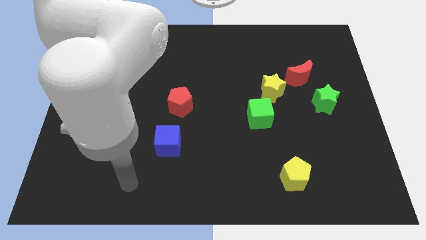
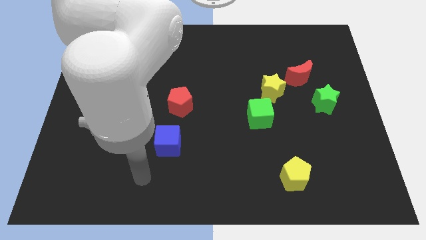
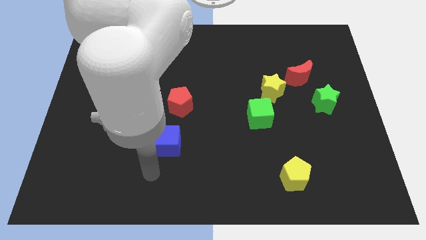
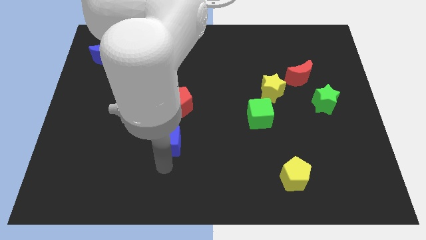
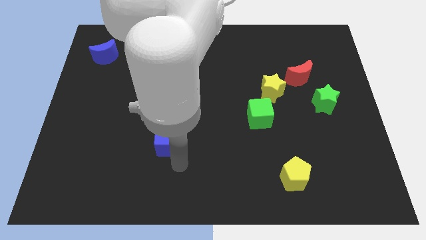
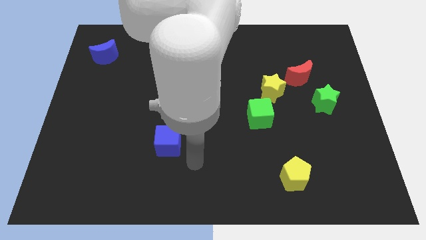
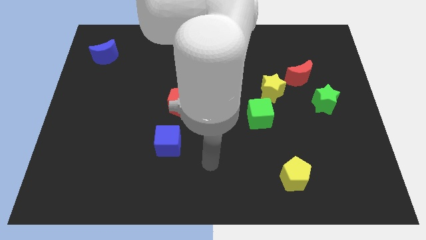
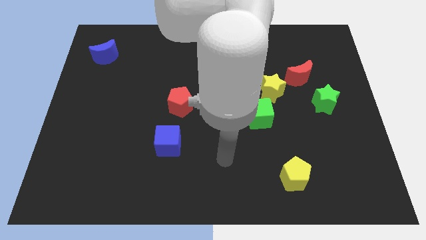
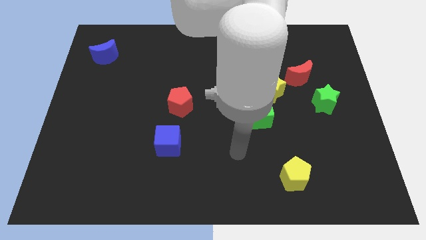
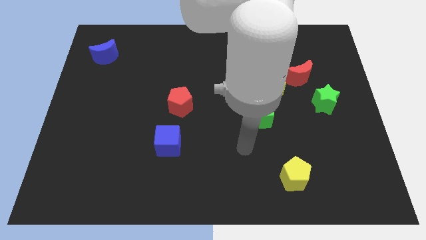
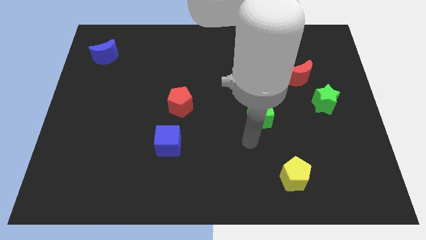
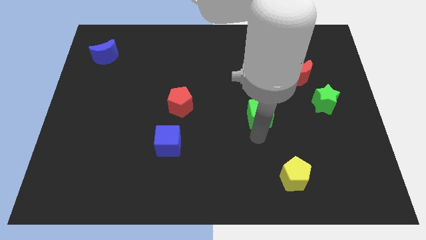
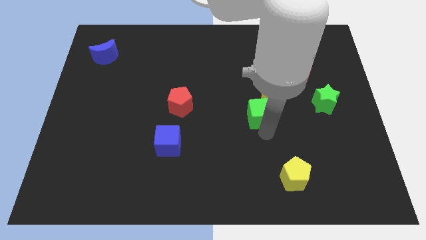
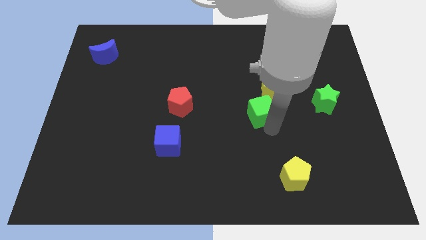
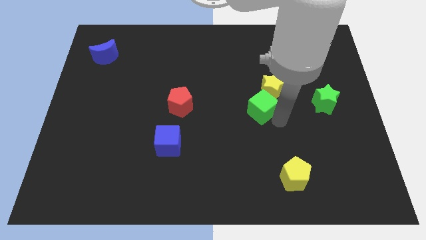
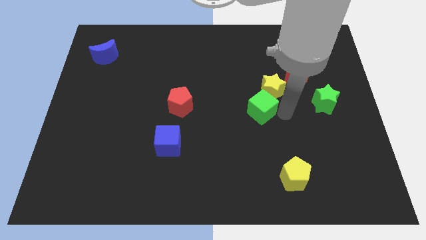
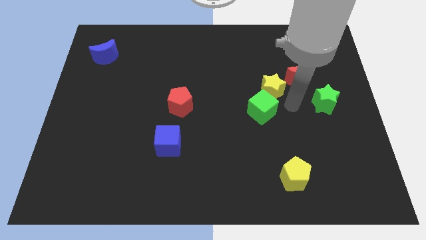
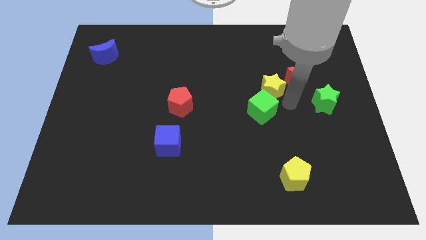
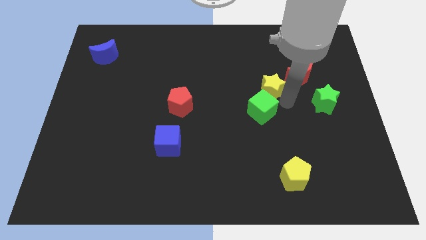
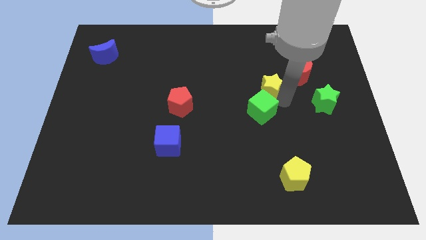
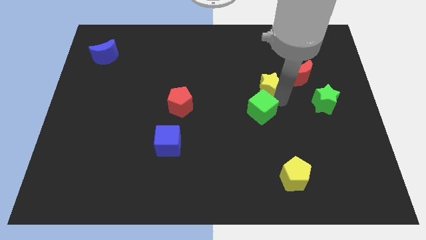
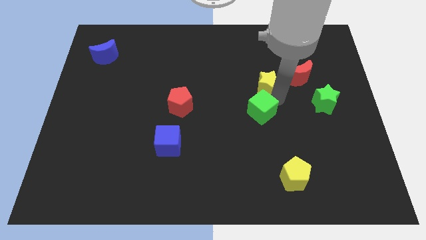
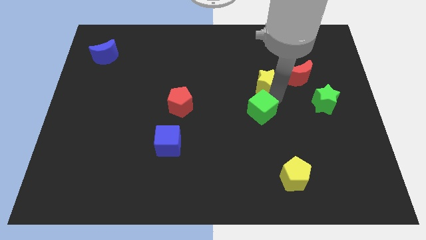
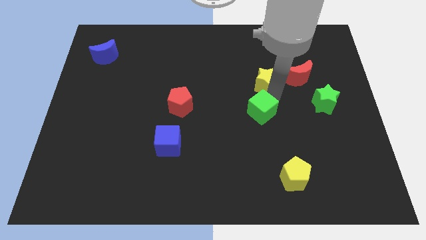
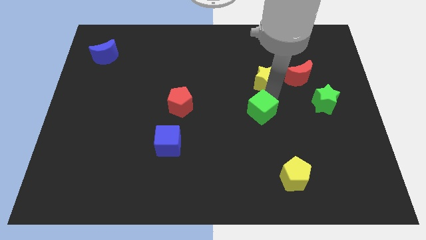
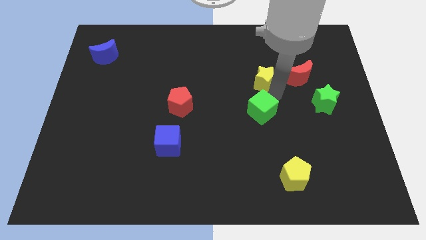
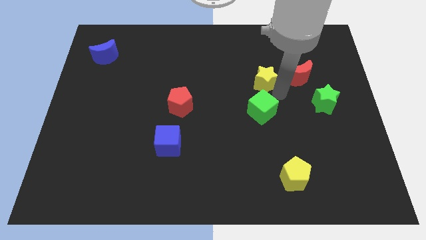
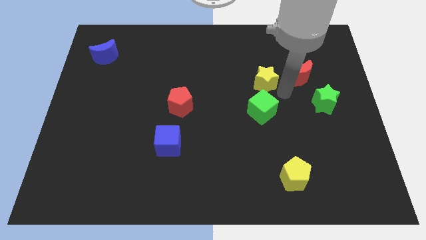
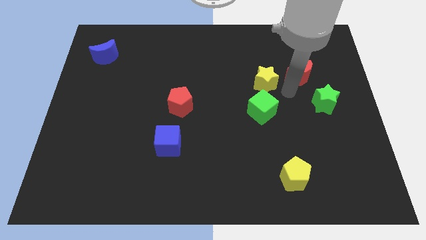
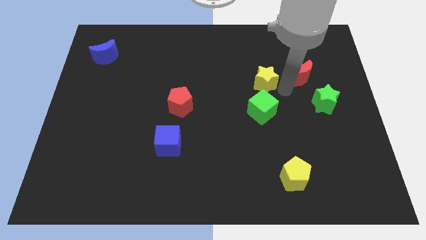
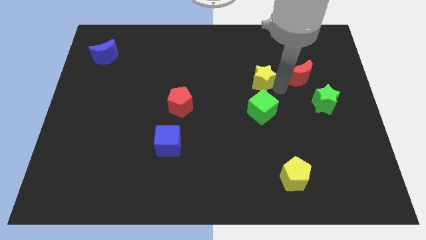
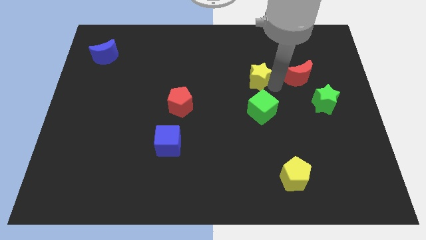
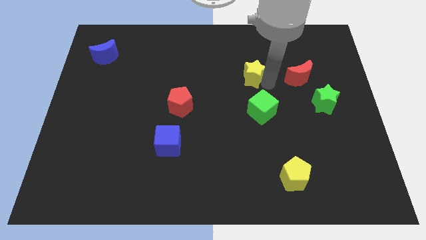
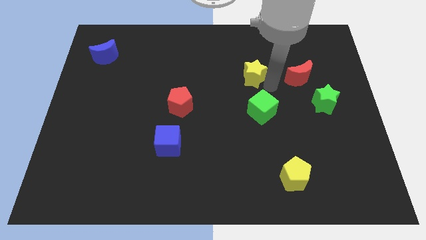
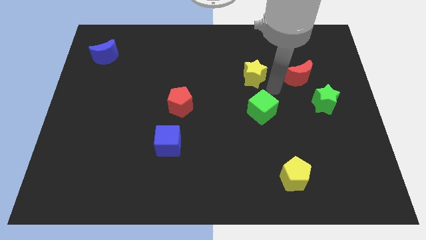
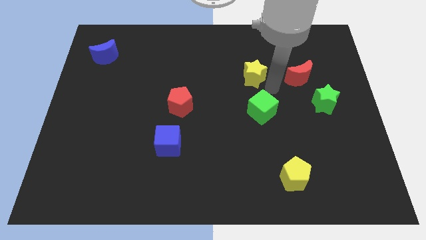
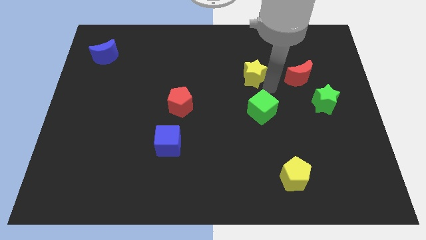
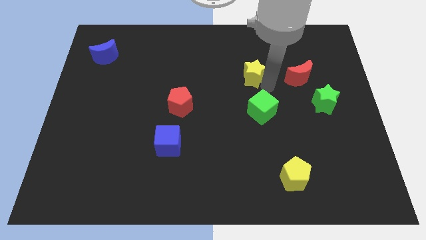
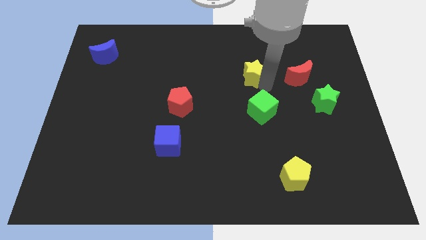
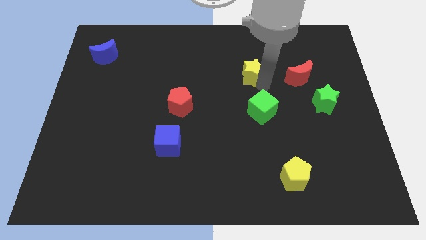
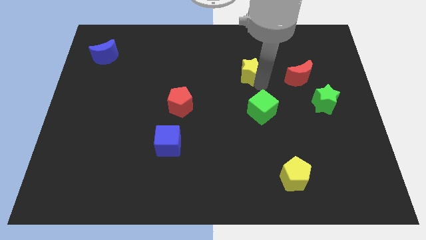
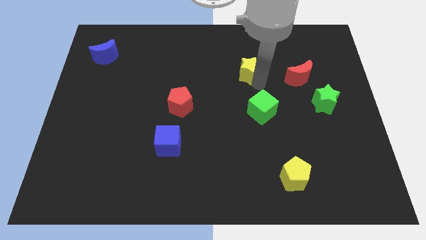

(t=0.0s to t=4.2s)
separate the yellow star from the red moon and green cube

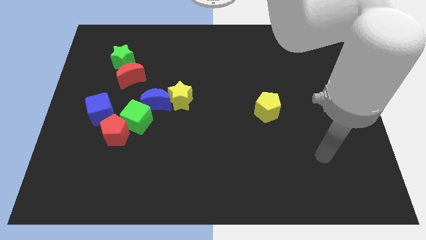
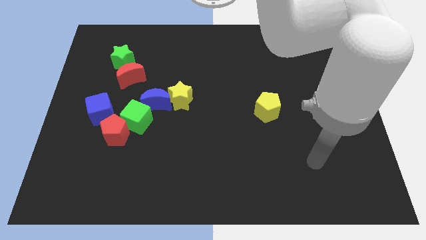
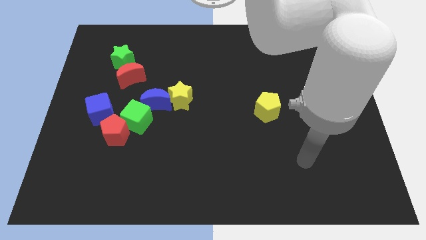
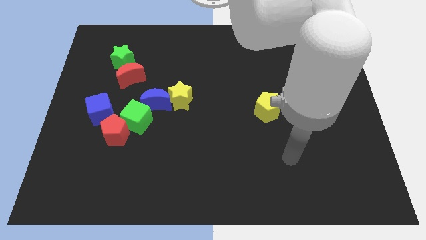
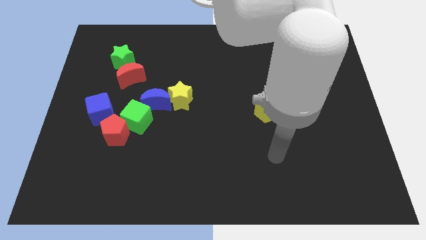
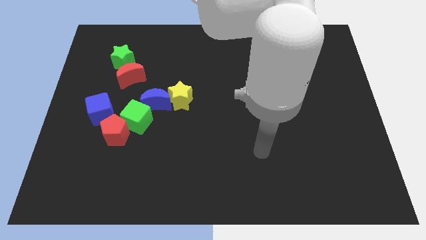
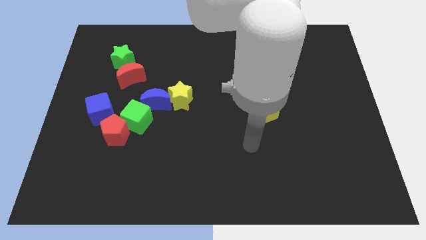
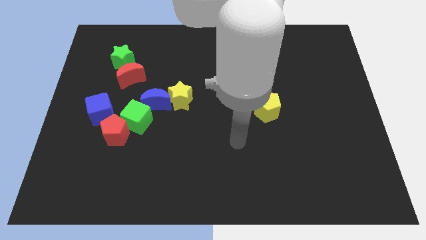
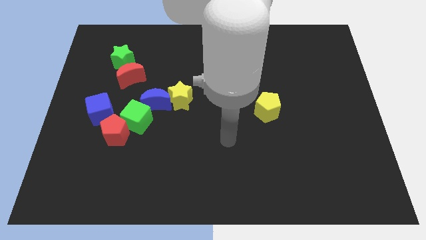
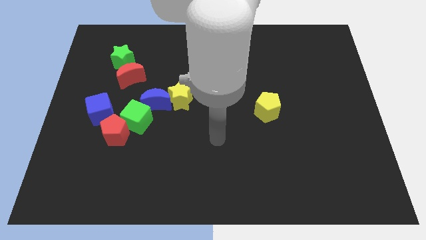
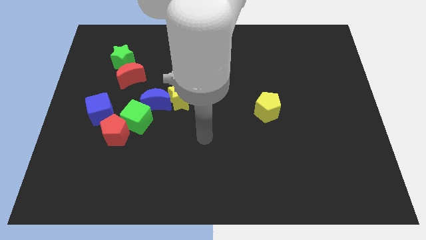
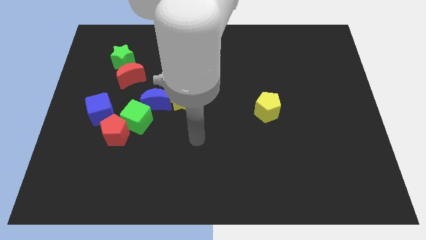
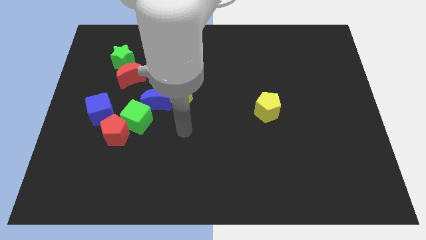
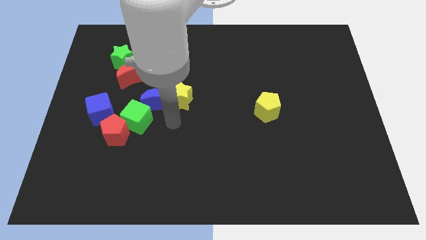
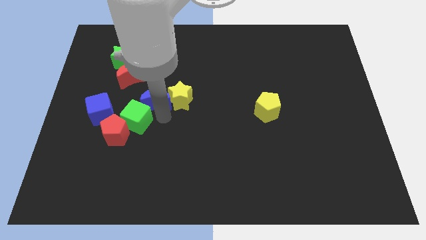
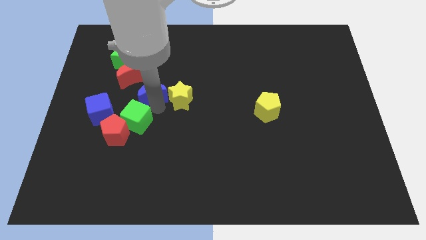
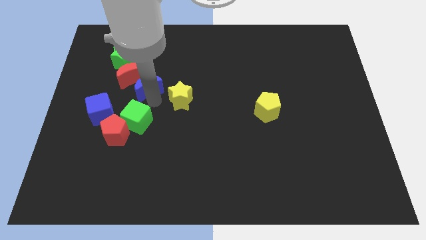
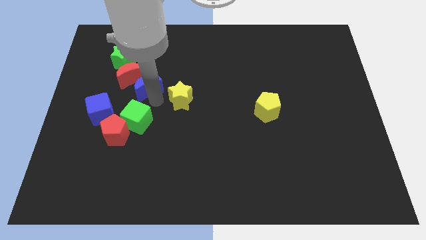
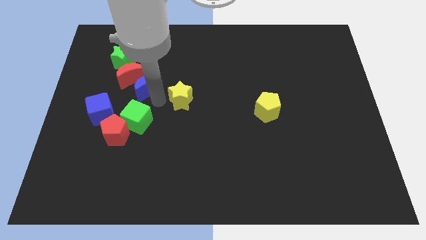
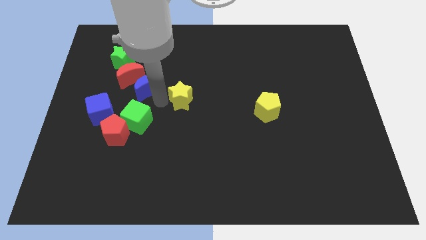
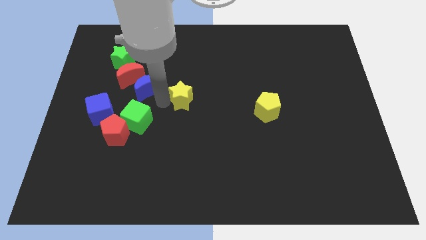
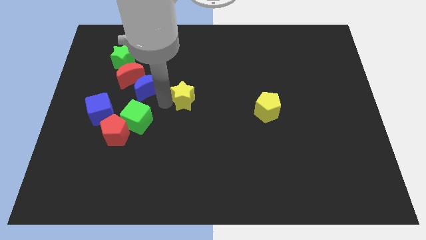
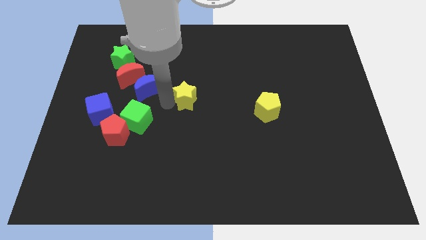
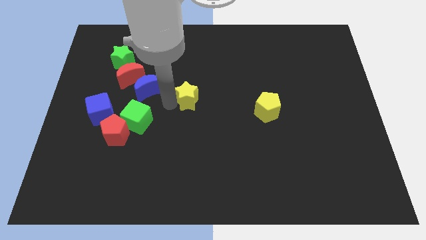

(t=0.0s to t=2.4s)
move the yellow star away from the blue moon

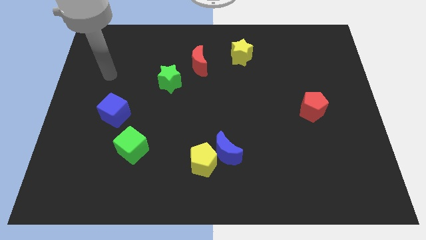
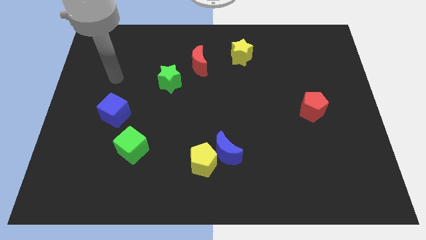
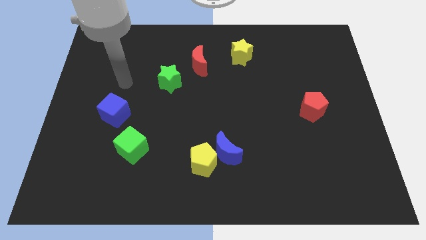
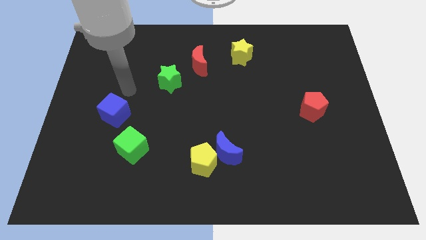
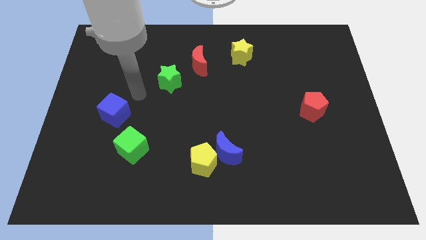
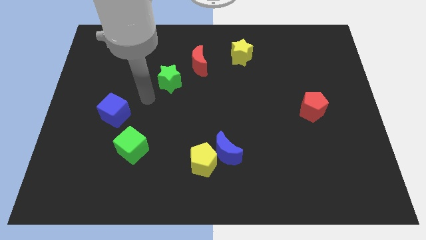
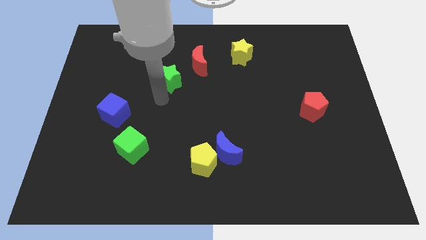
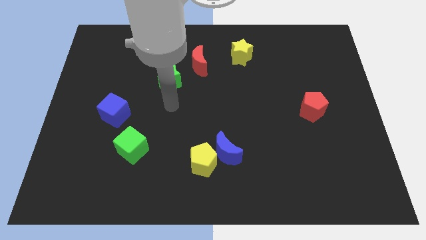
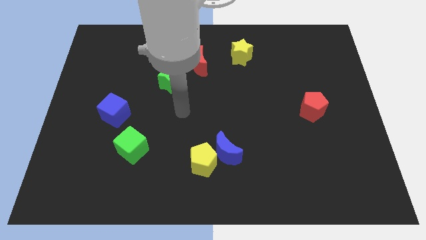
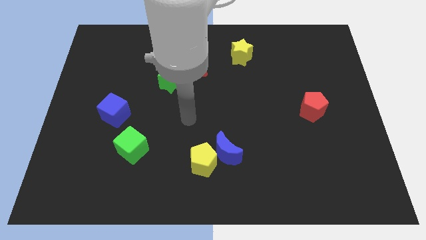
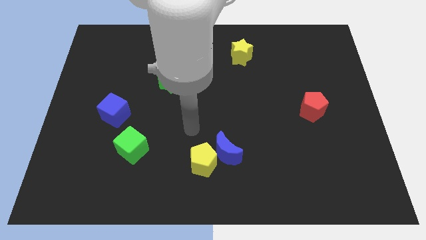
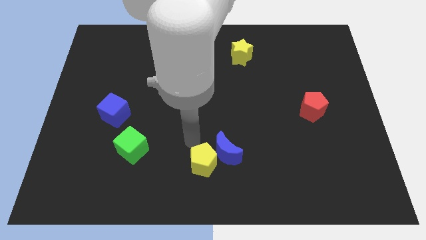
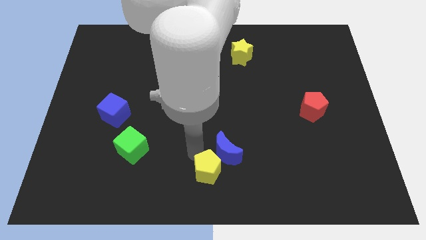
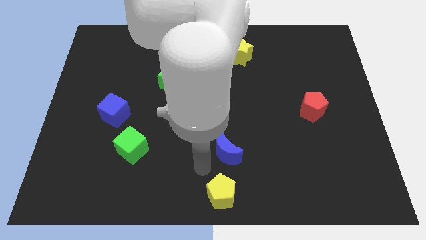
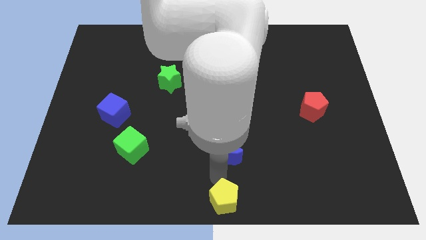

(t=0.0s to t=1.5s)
move the blue moon away from the yellow pentagon

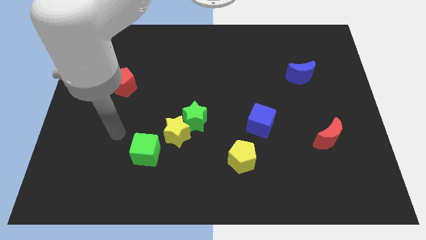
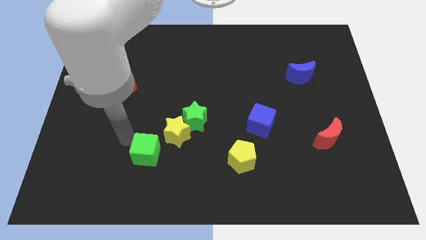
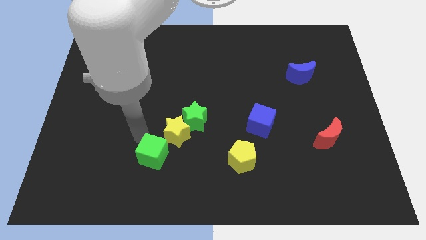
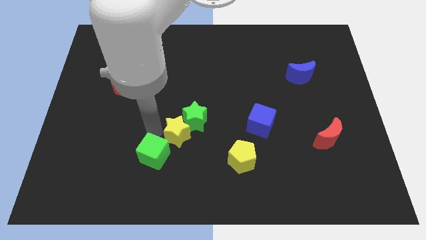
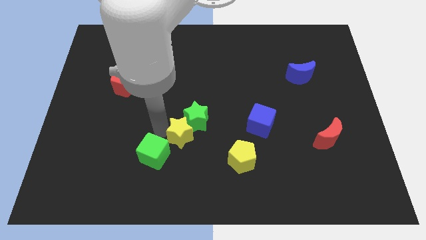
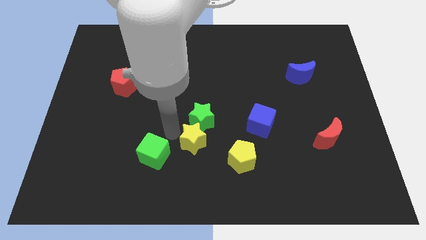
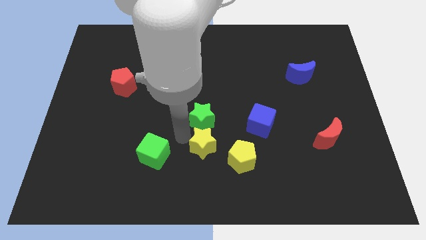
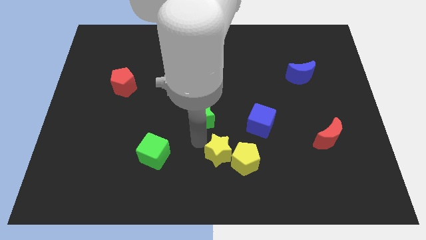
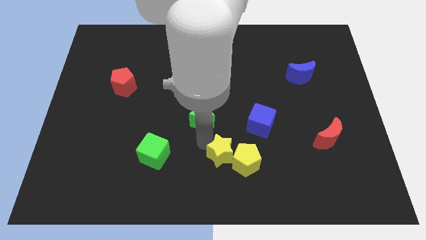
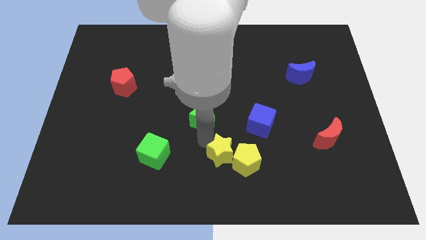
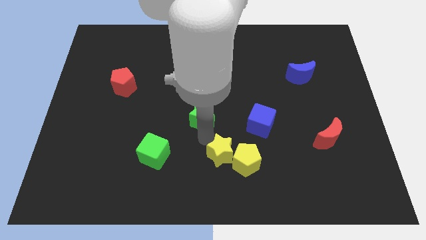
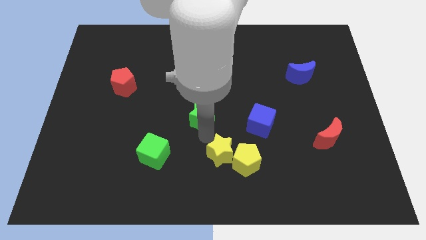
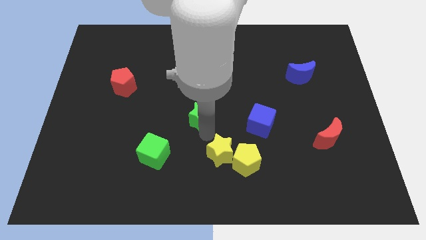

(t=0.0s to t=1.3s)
separate the green star from the yellow star
